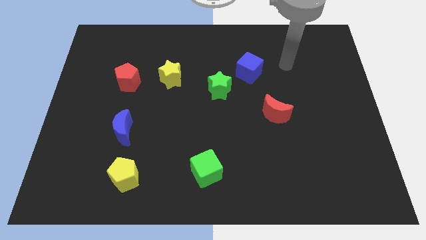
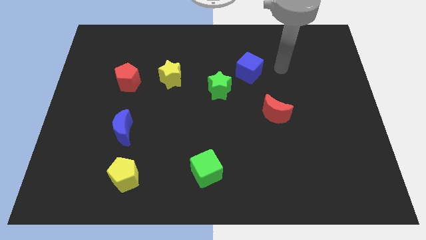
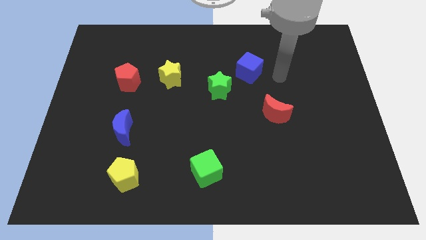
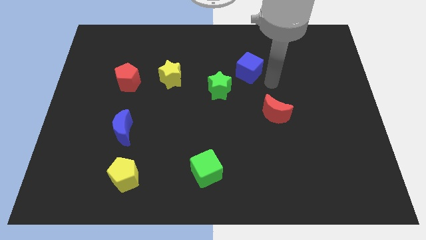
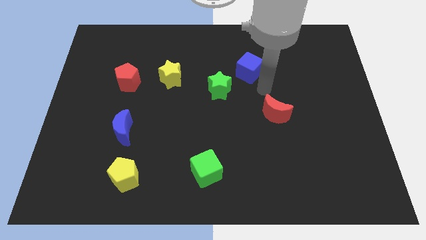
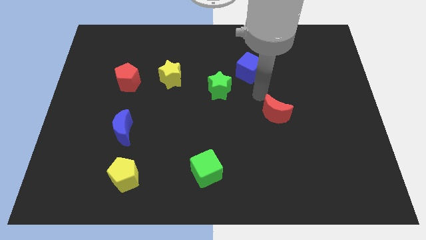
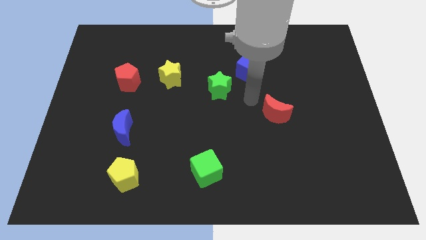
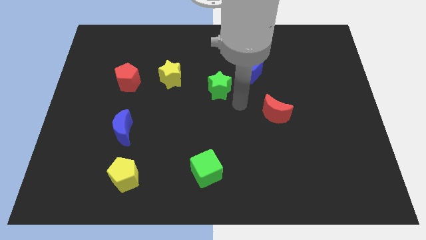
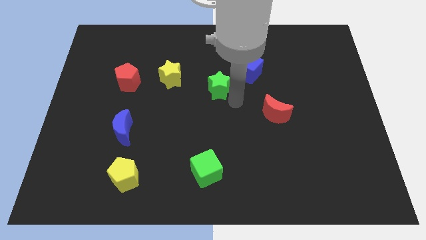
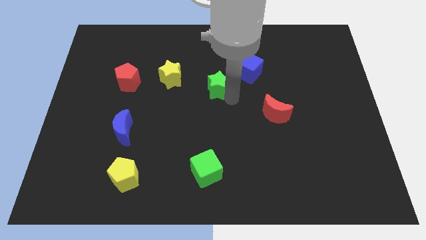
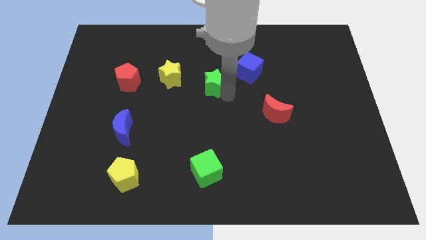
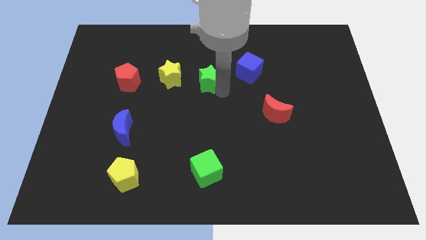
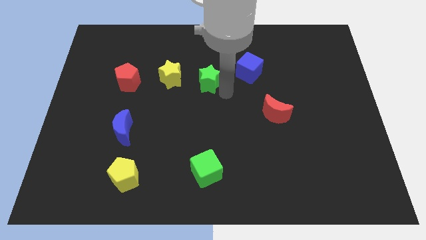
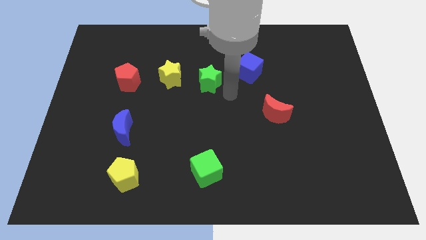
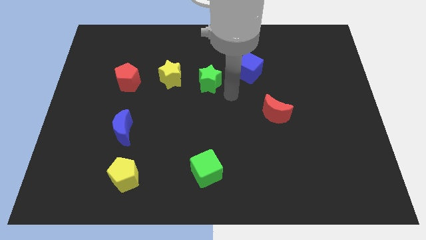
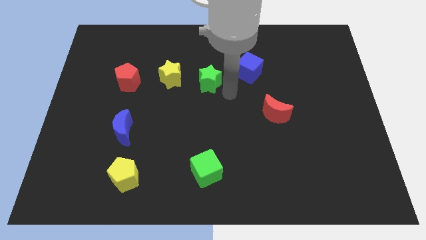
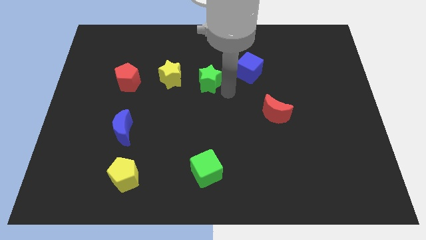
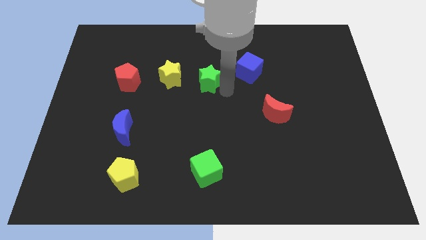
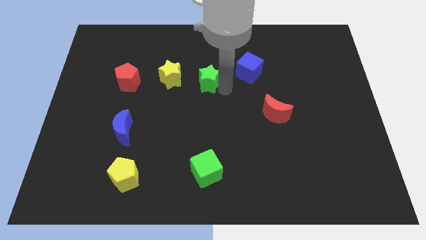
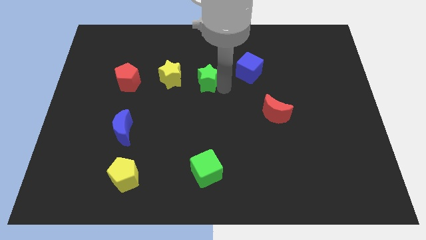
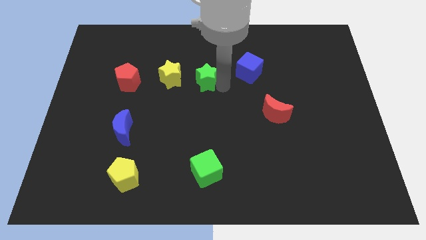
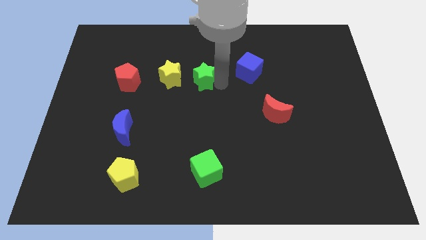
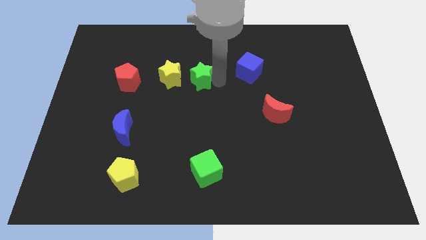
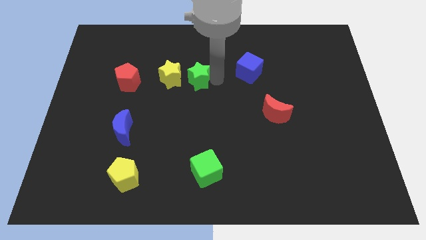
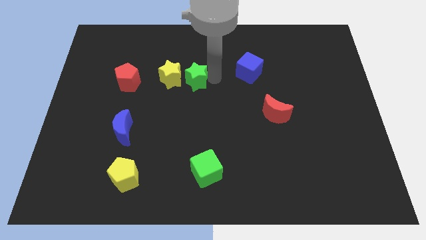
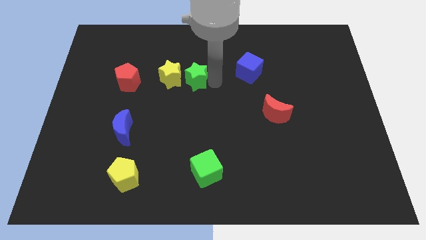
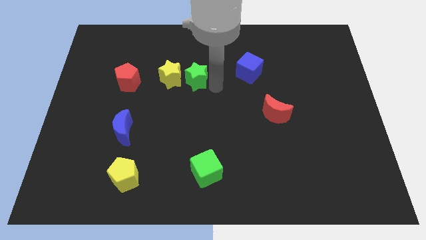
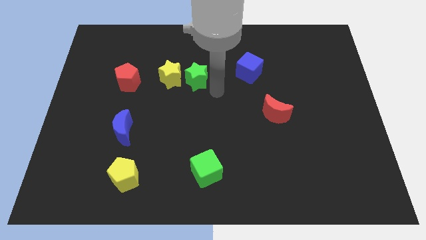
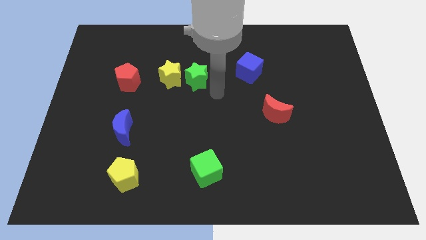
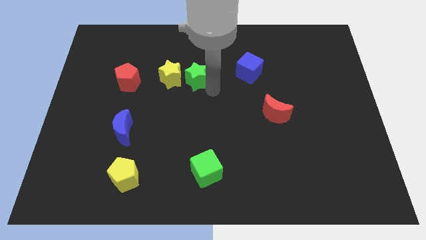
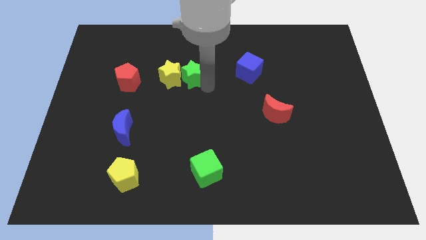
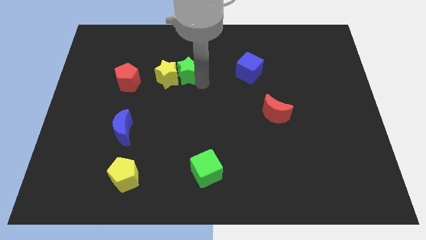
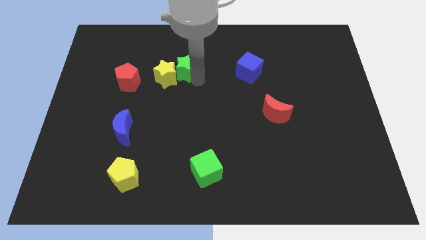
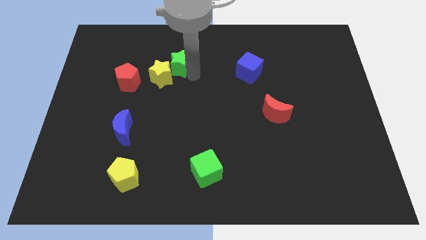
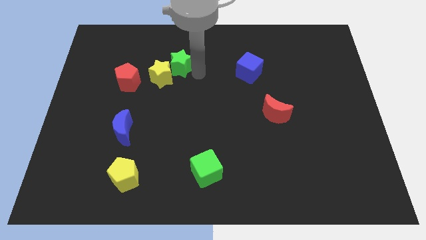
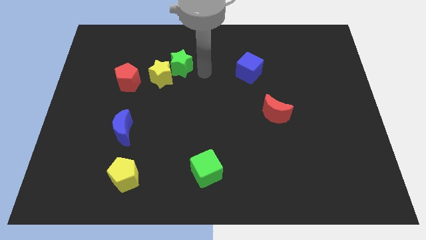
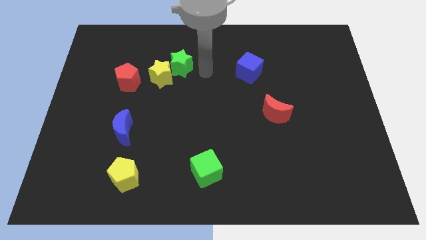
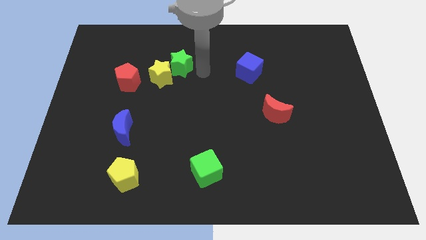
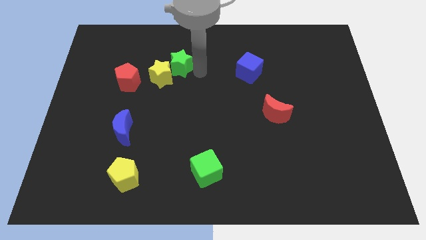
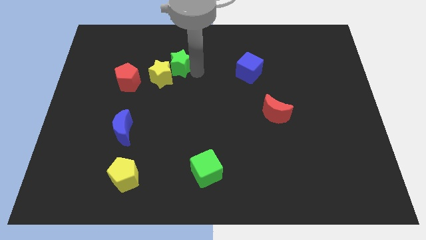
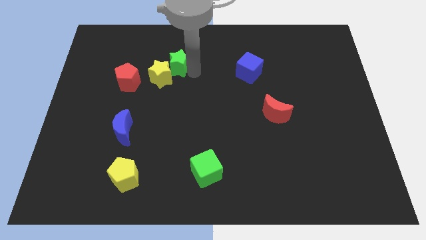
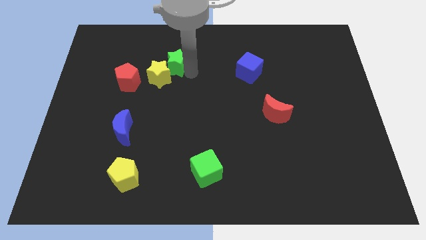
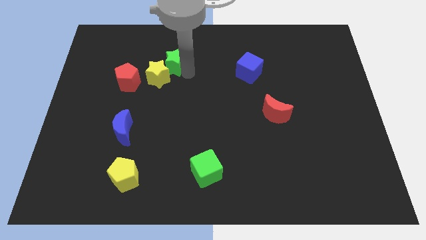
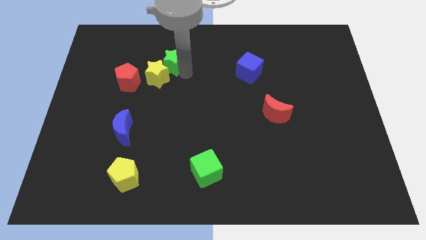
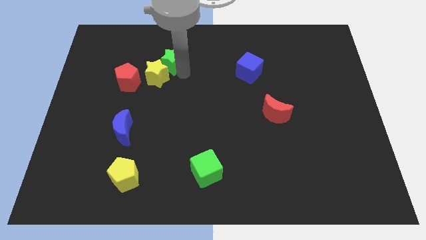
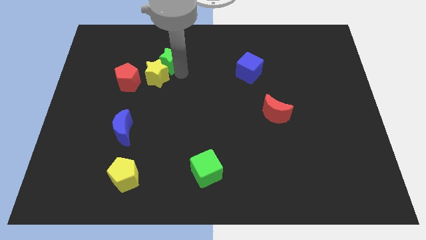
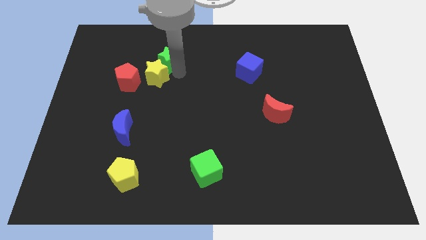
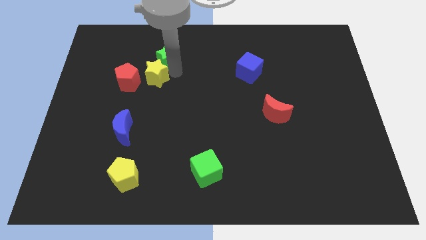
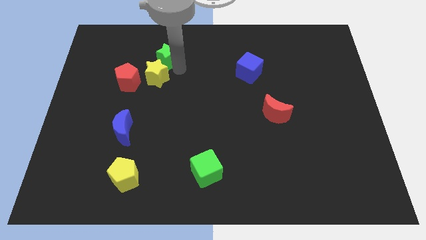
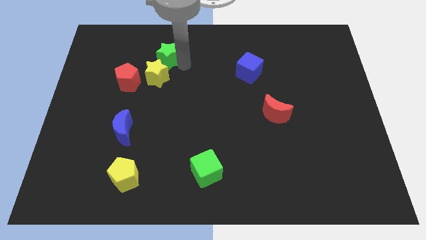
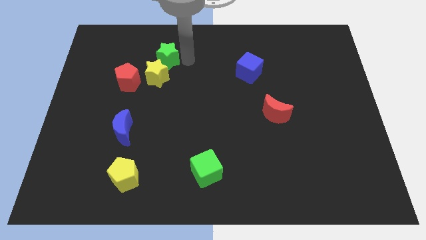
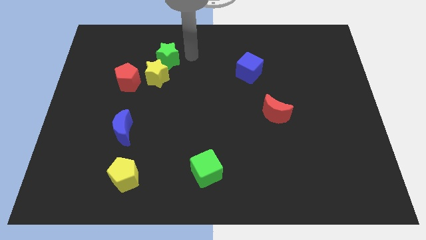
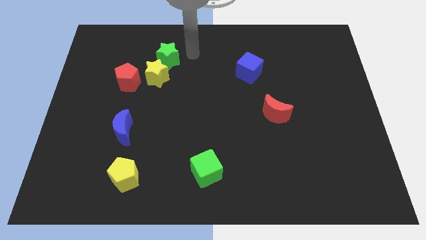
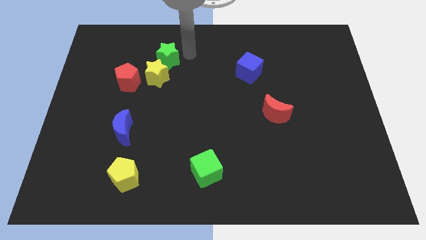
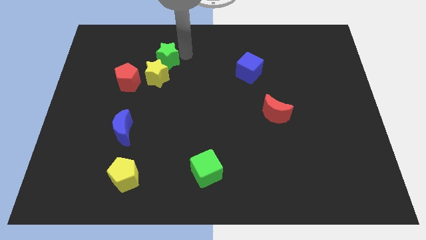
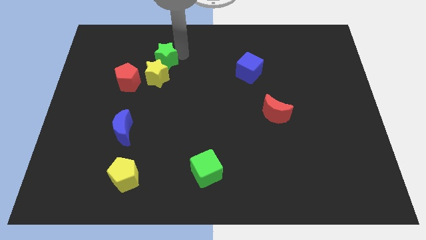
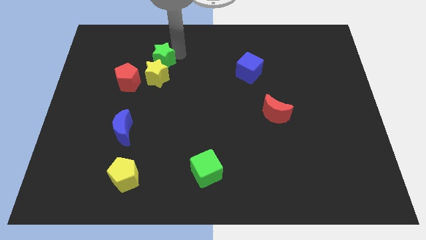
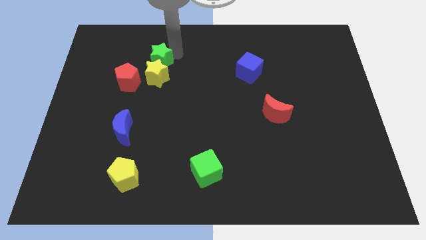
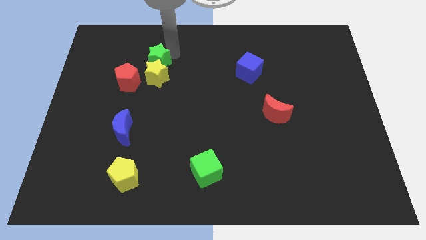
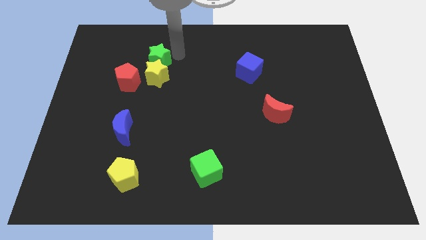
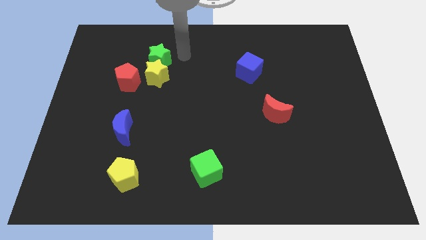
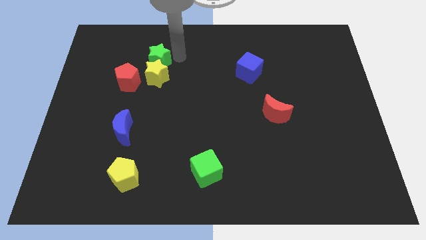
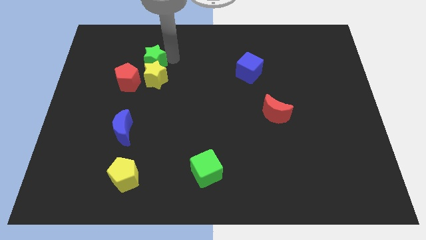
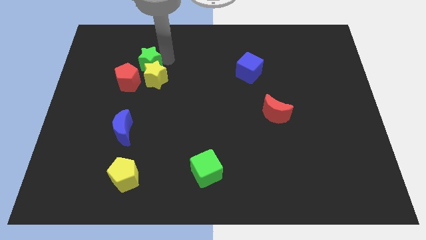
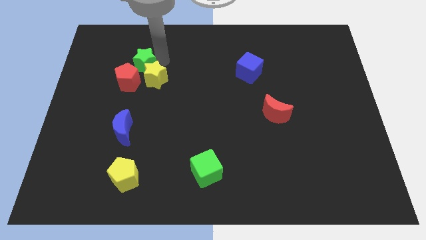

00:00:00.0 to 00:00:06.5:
move the green star left of the yellow star

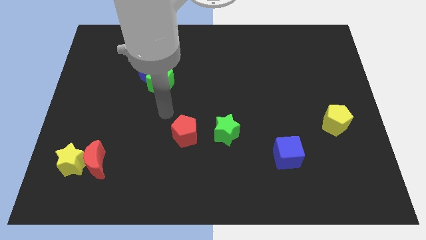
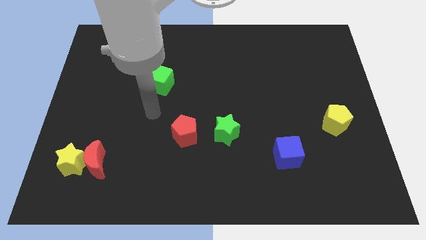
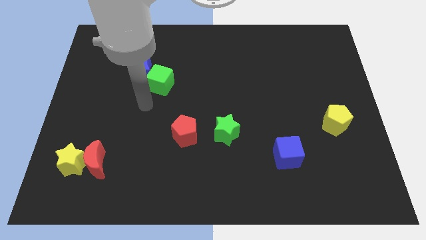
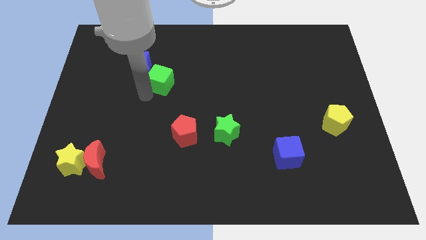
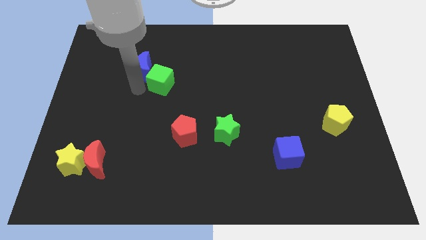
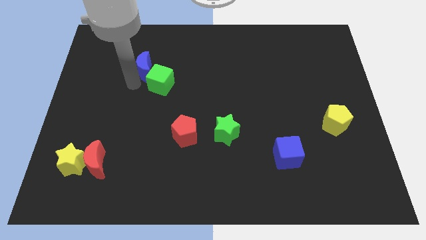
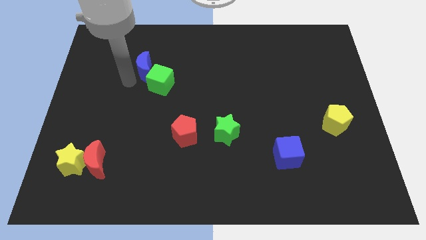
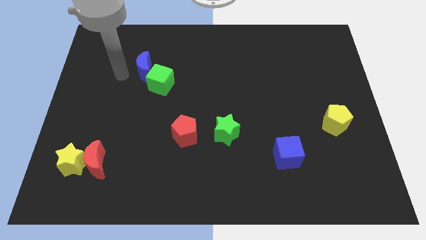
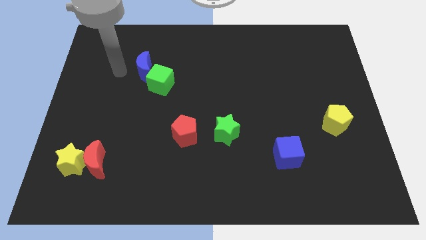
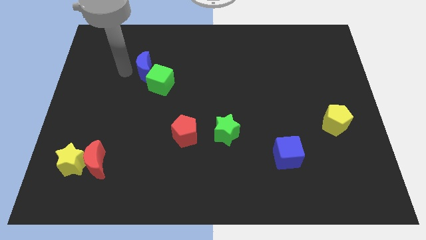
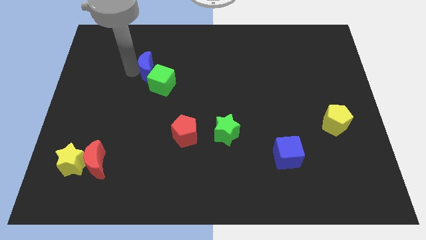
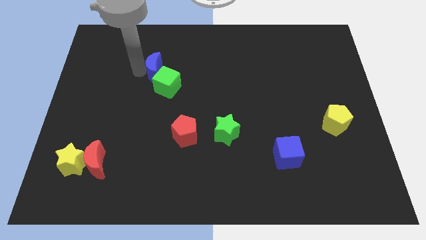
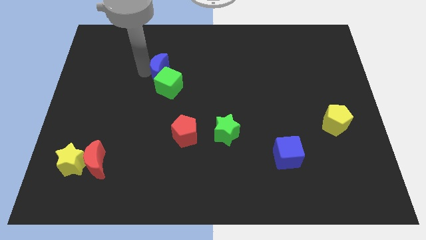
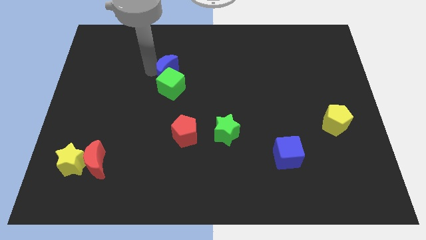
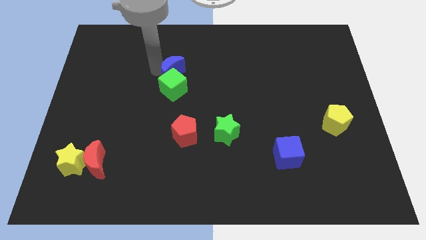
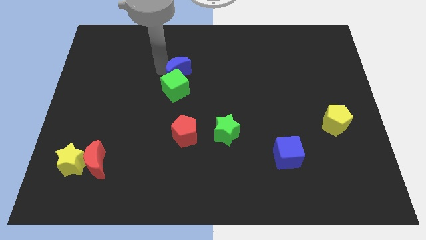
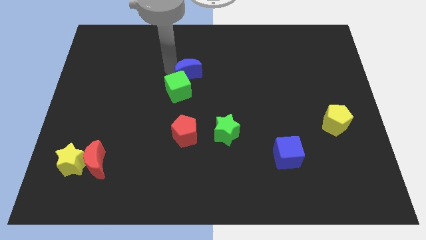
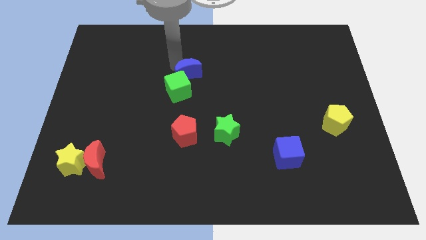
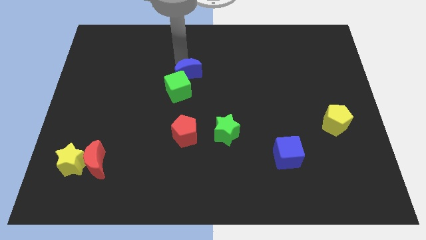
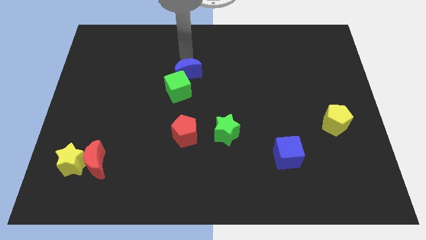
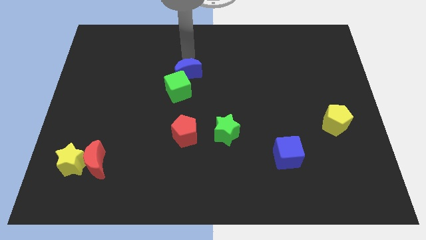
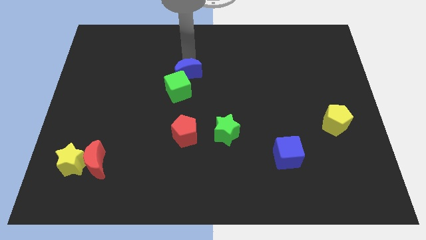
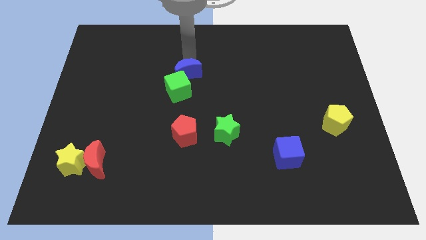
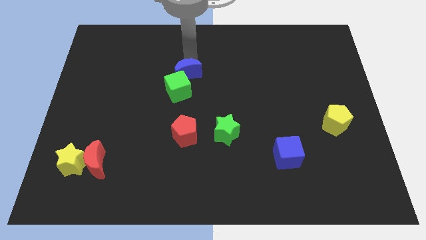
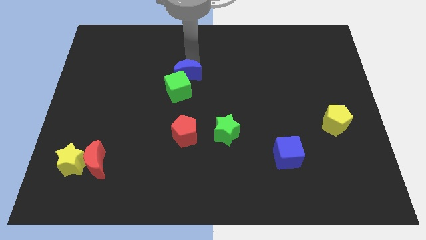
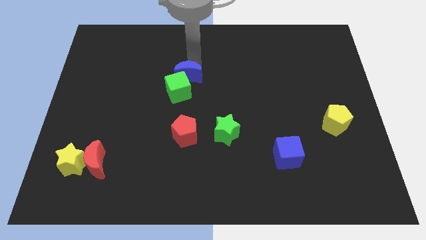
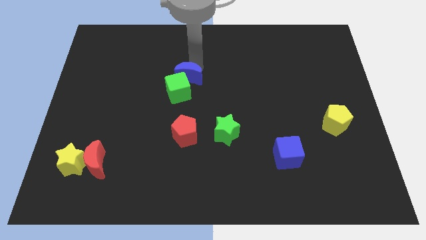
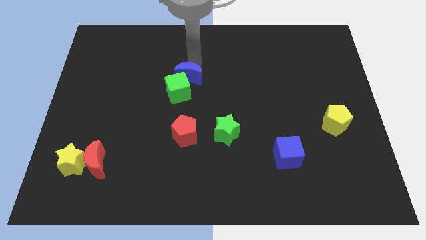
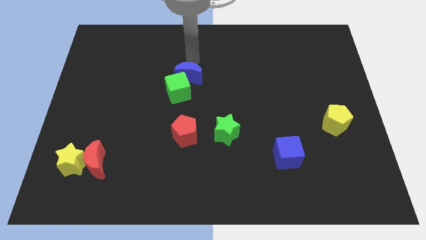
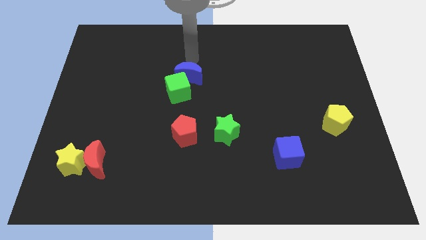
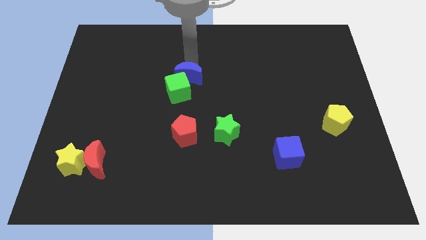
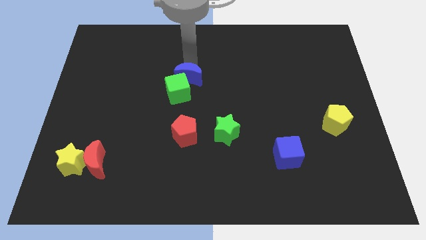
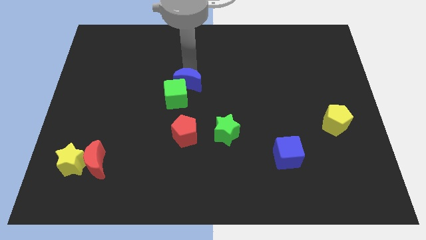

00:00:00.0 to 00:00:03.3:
push the blue moon to the top side of the red pentagon
